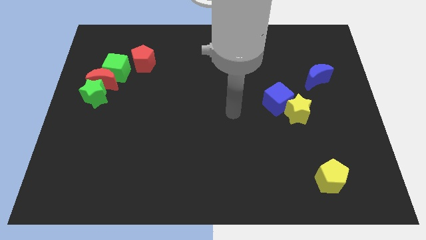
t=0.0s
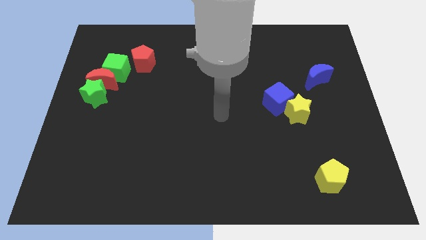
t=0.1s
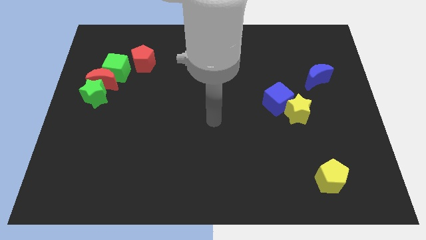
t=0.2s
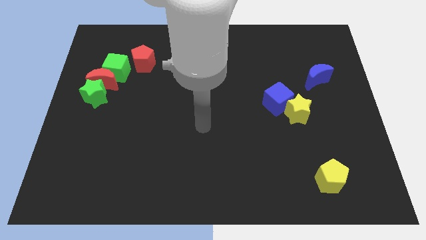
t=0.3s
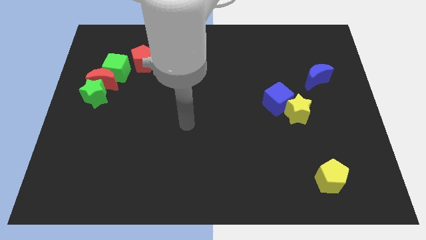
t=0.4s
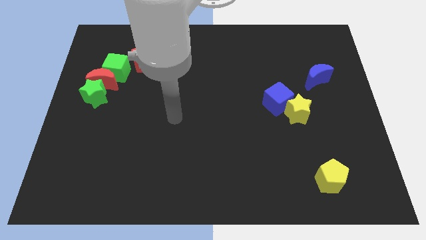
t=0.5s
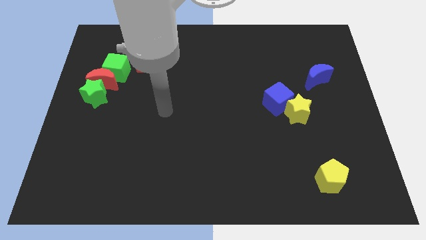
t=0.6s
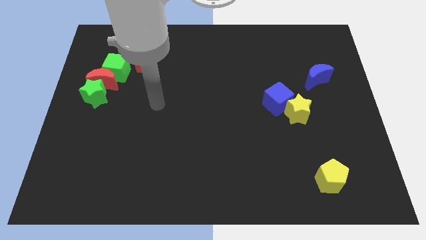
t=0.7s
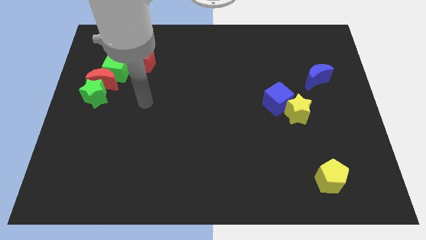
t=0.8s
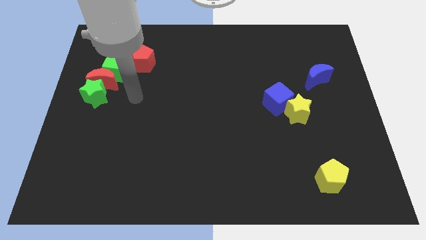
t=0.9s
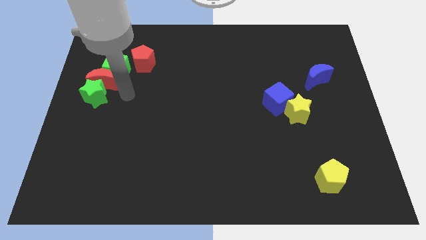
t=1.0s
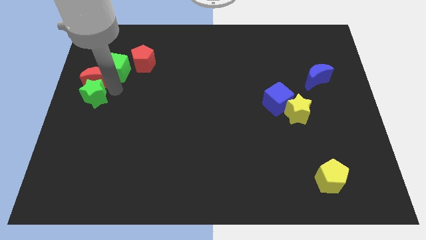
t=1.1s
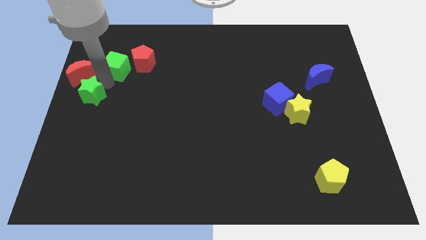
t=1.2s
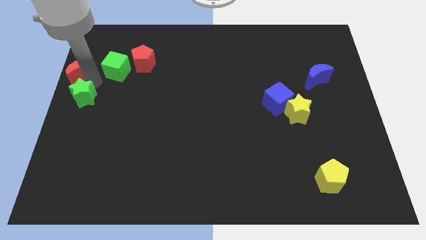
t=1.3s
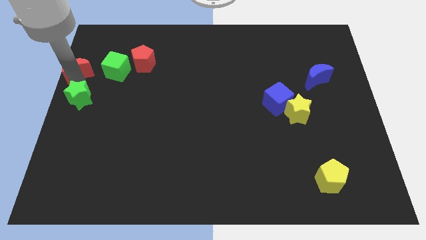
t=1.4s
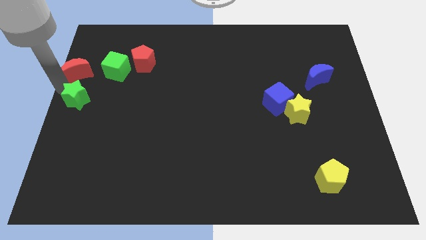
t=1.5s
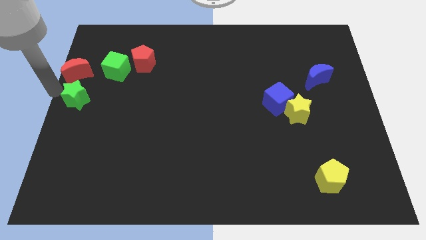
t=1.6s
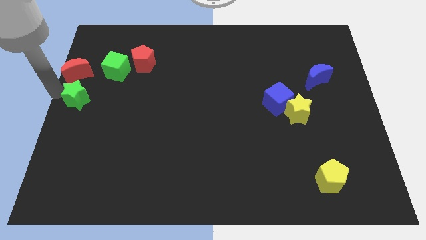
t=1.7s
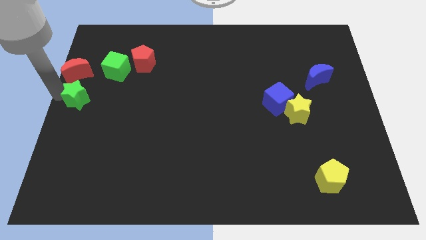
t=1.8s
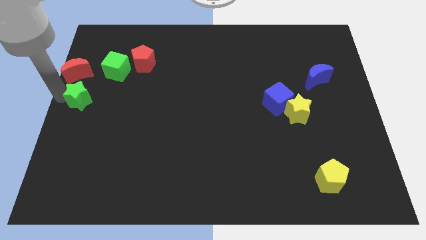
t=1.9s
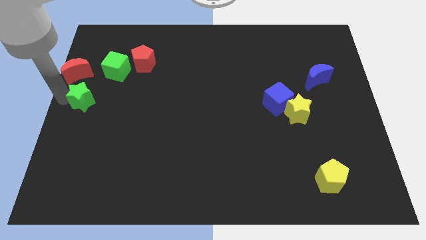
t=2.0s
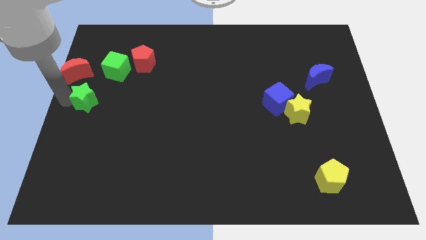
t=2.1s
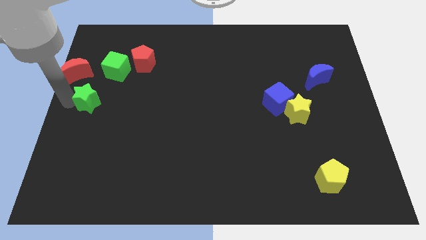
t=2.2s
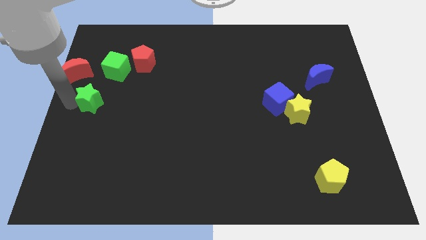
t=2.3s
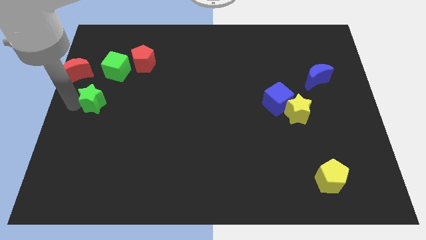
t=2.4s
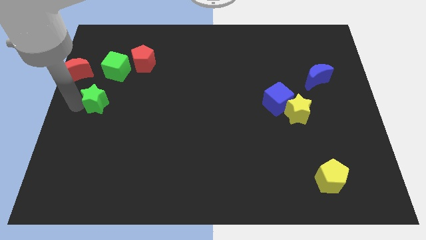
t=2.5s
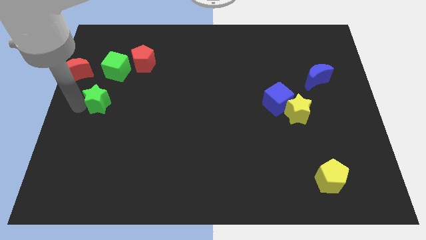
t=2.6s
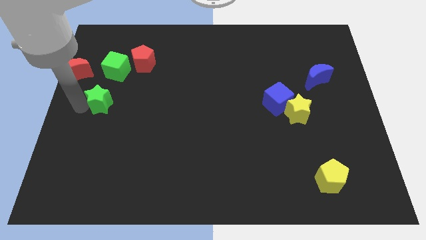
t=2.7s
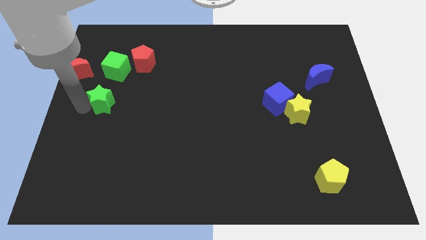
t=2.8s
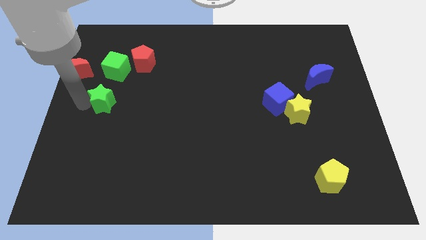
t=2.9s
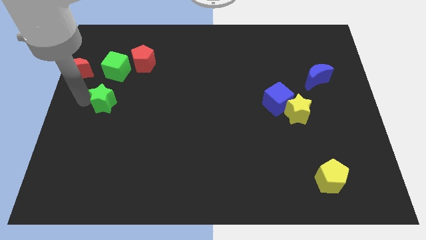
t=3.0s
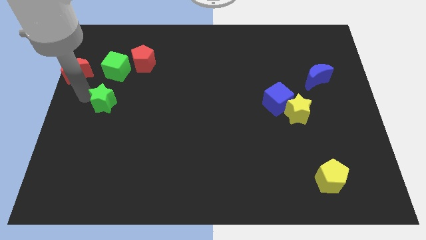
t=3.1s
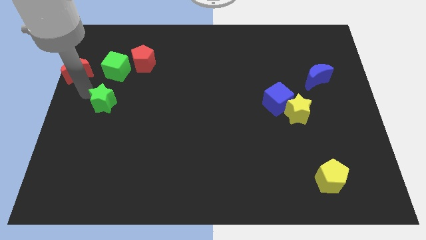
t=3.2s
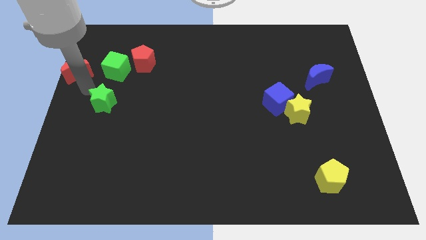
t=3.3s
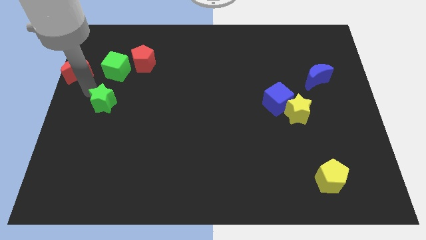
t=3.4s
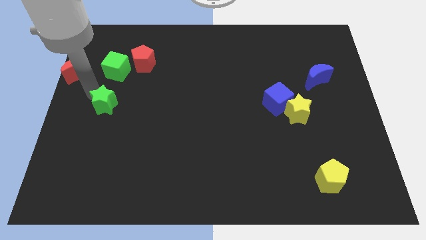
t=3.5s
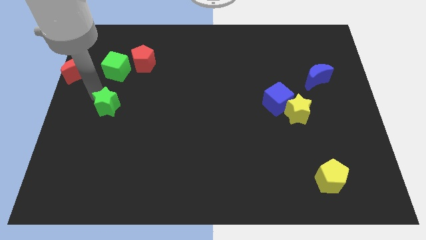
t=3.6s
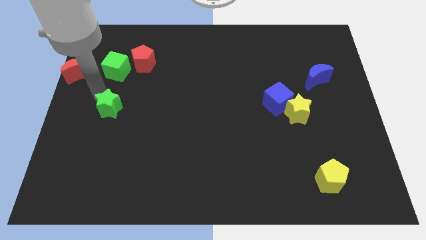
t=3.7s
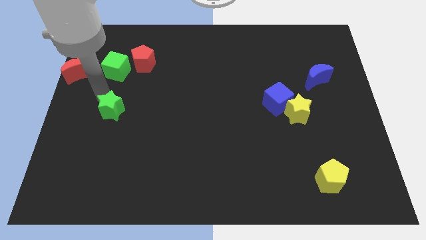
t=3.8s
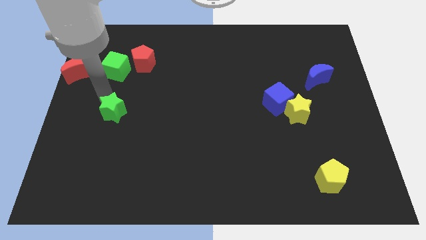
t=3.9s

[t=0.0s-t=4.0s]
slide the green star down and to the right diagonally a little bit

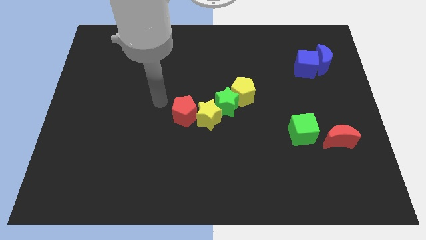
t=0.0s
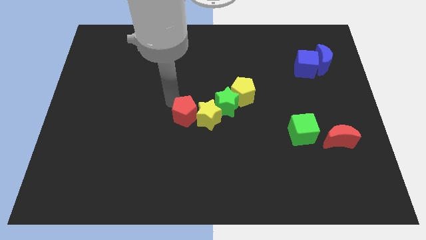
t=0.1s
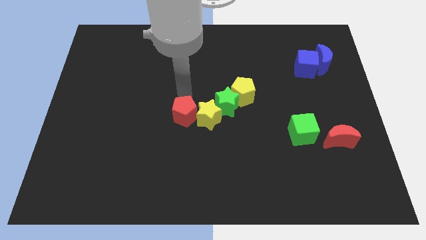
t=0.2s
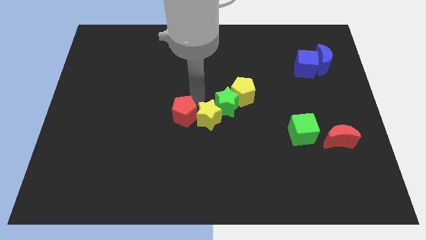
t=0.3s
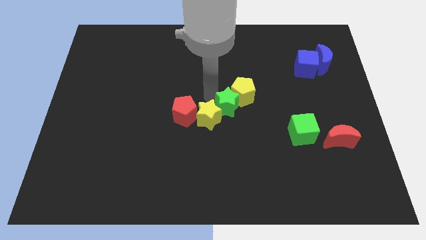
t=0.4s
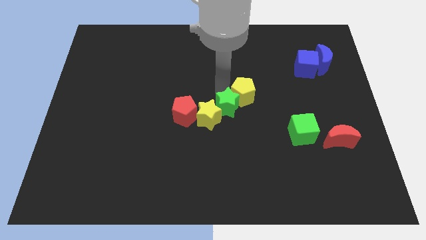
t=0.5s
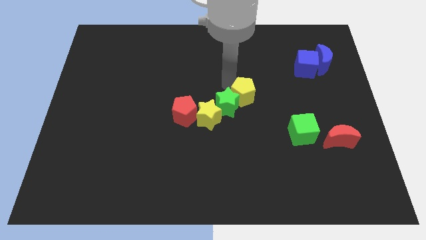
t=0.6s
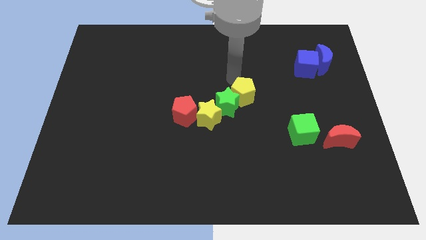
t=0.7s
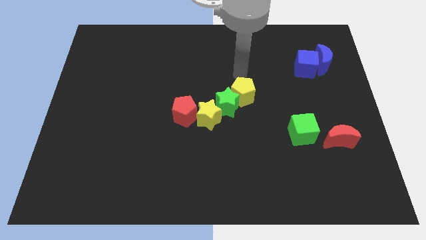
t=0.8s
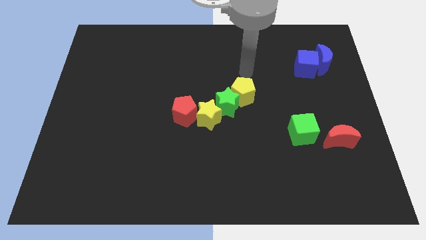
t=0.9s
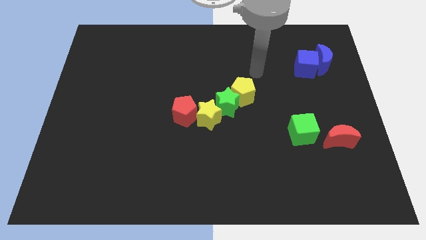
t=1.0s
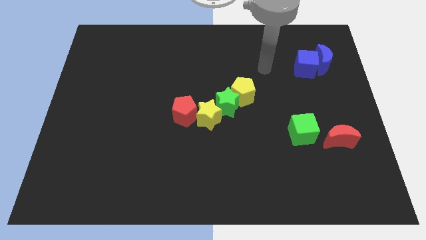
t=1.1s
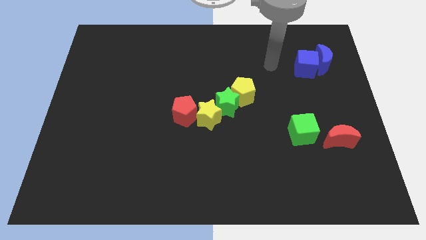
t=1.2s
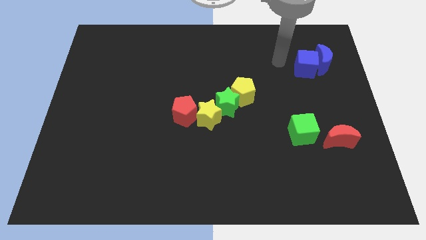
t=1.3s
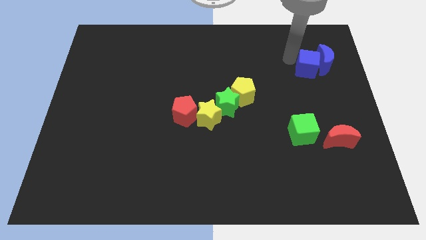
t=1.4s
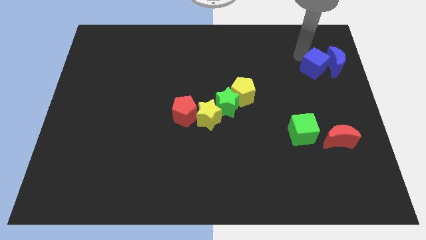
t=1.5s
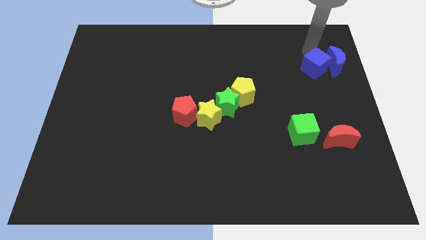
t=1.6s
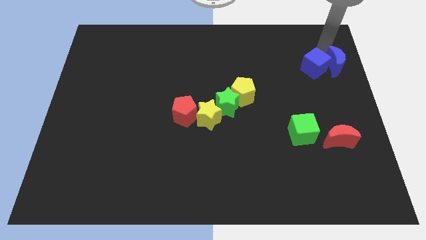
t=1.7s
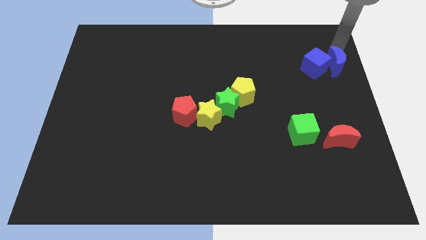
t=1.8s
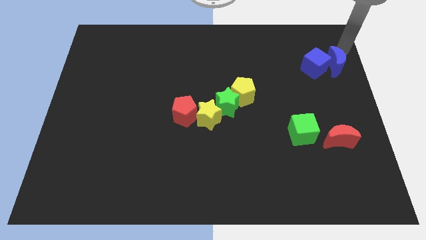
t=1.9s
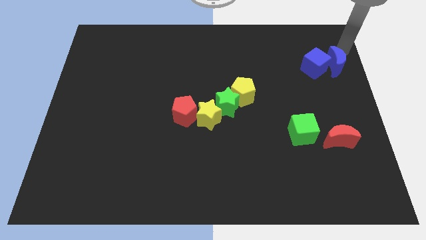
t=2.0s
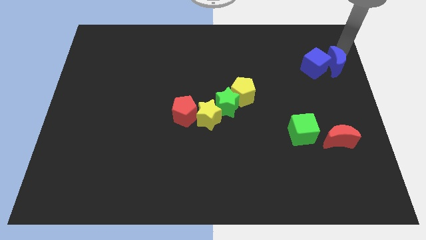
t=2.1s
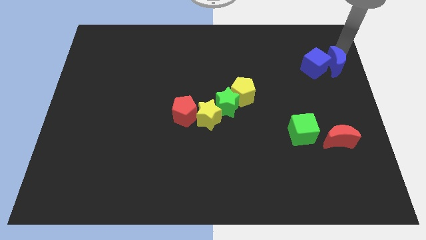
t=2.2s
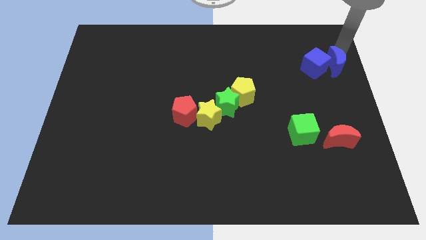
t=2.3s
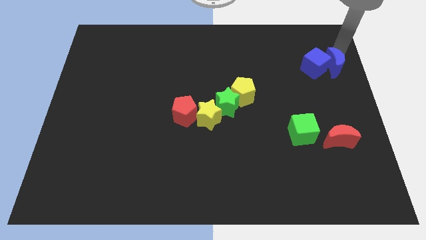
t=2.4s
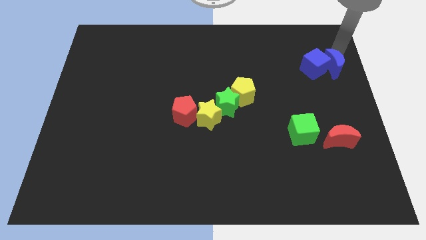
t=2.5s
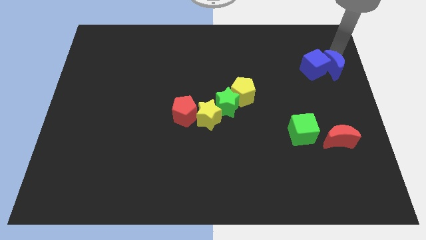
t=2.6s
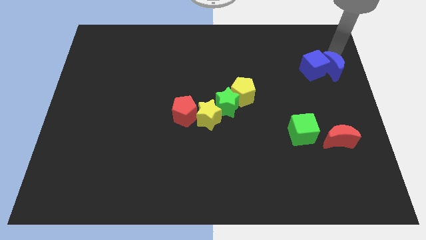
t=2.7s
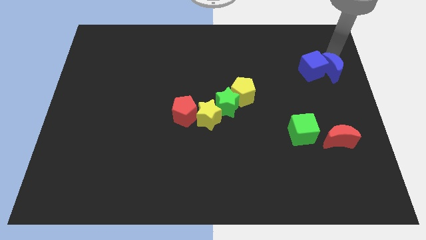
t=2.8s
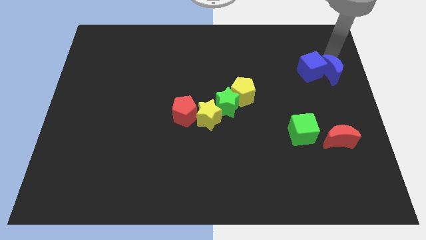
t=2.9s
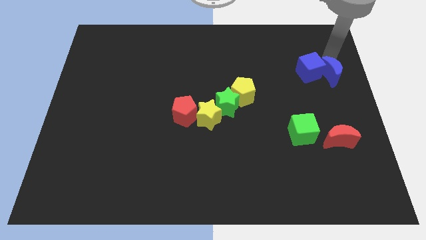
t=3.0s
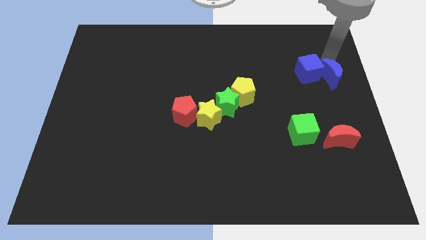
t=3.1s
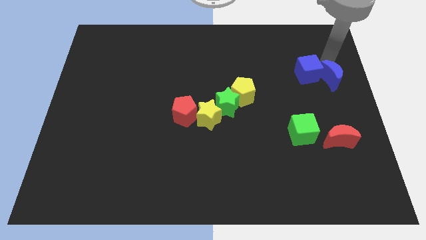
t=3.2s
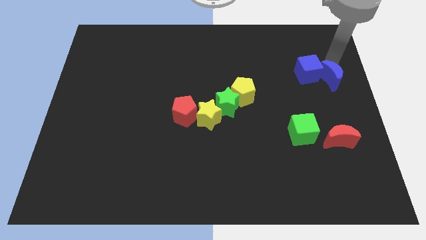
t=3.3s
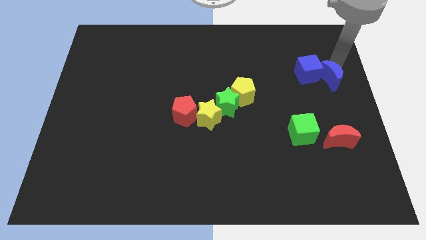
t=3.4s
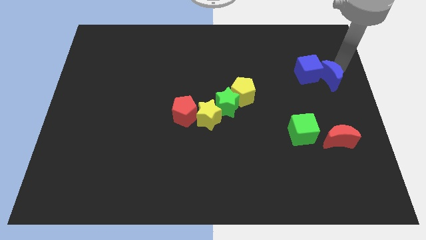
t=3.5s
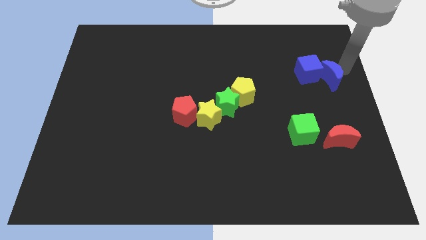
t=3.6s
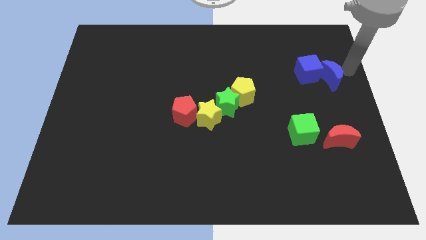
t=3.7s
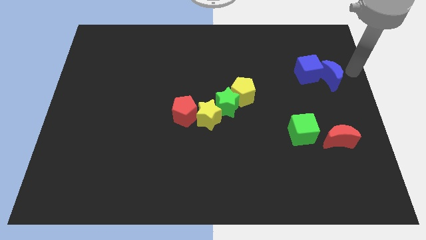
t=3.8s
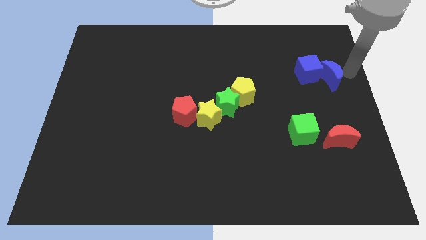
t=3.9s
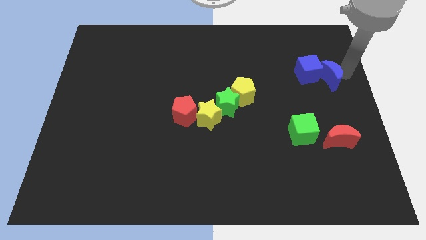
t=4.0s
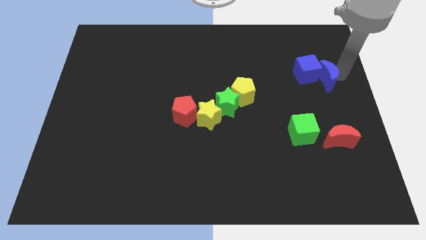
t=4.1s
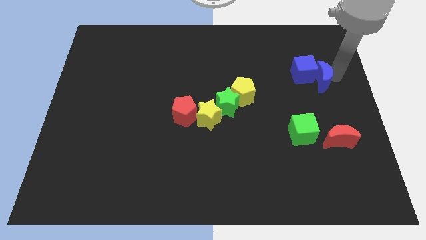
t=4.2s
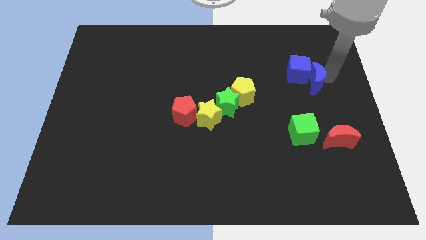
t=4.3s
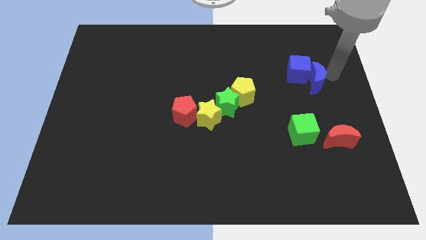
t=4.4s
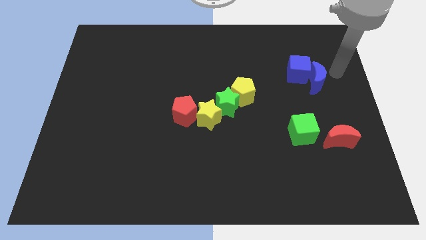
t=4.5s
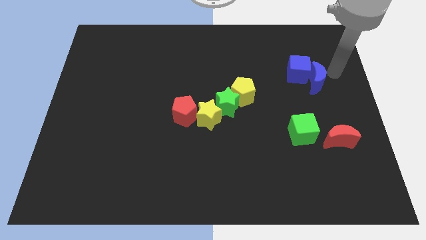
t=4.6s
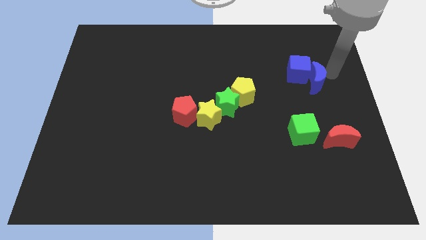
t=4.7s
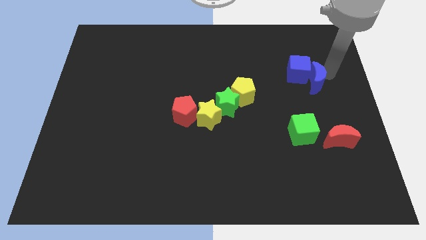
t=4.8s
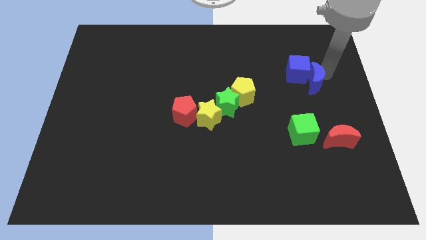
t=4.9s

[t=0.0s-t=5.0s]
push the blue moon down and to the left slightly
